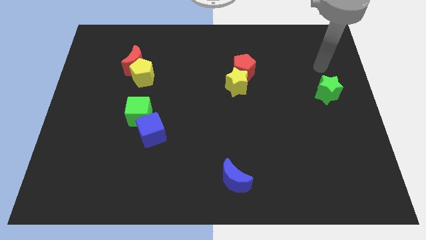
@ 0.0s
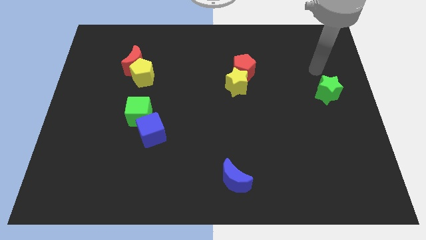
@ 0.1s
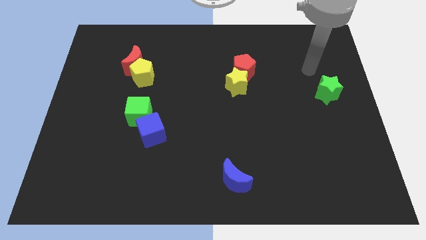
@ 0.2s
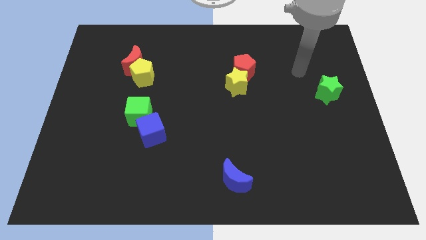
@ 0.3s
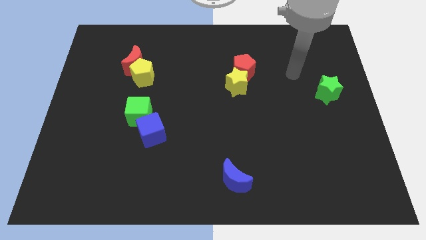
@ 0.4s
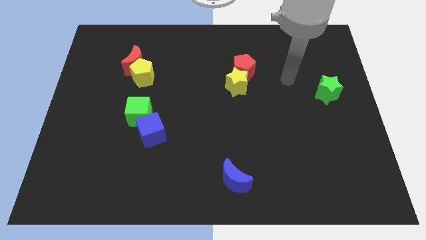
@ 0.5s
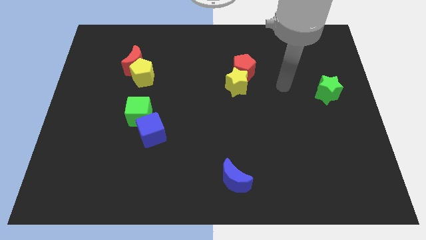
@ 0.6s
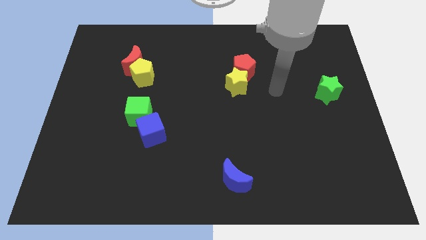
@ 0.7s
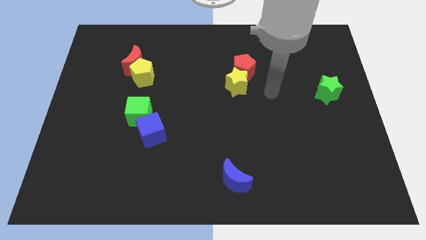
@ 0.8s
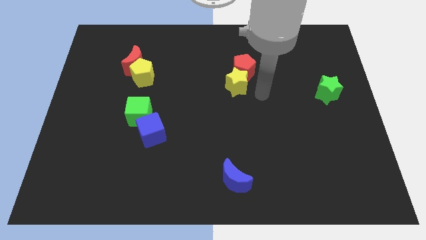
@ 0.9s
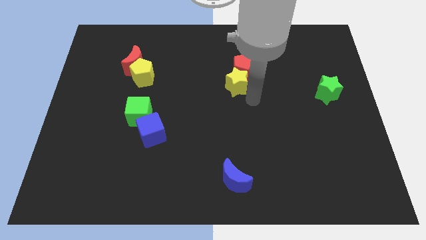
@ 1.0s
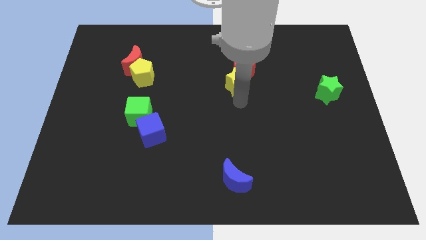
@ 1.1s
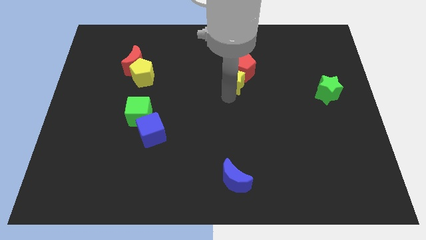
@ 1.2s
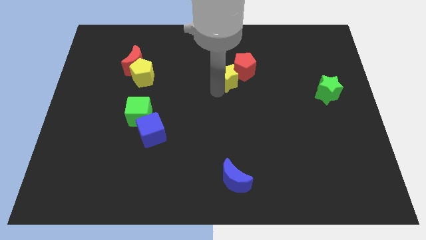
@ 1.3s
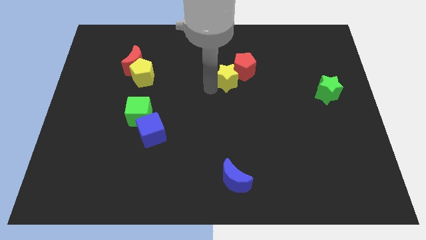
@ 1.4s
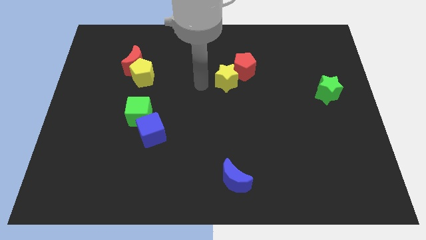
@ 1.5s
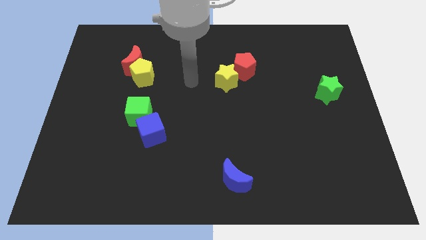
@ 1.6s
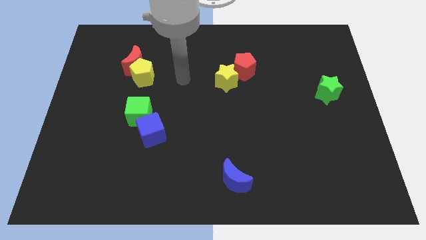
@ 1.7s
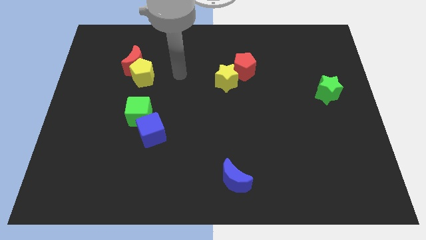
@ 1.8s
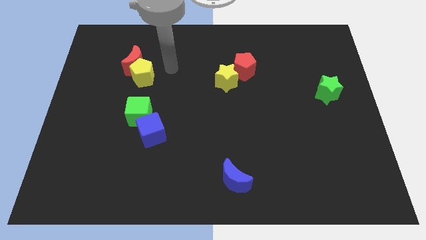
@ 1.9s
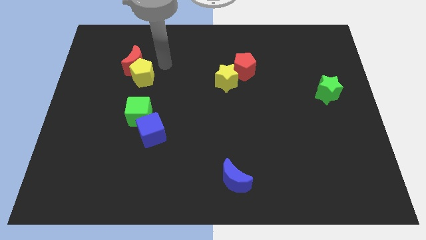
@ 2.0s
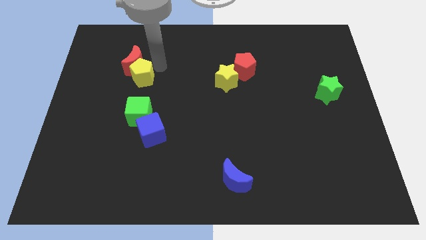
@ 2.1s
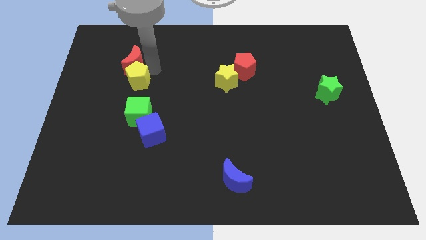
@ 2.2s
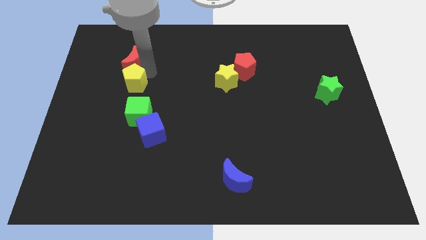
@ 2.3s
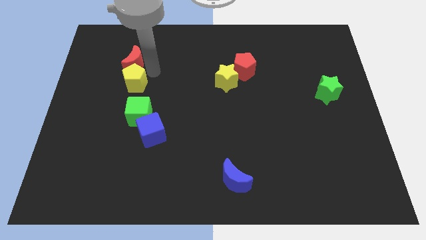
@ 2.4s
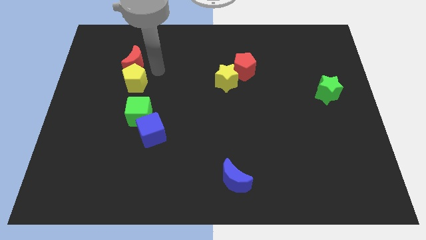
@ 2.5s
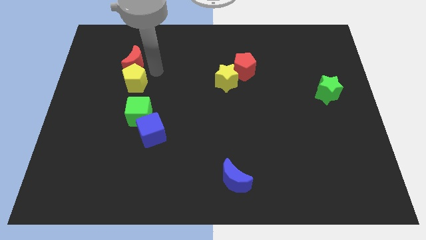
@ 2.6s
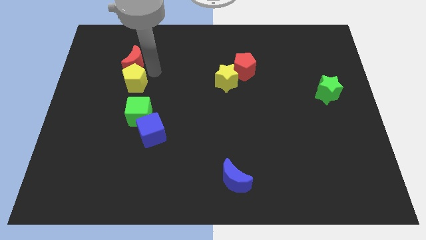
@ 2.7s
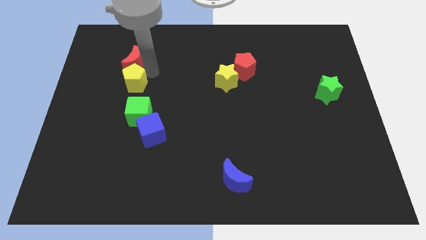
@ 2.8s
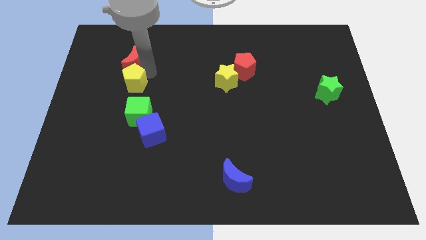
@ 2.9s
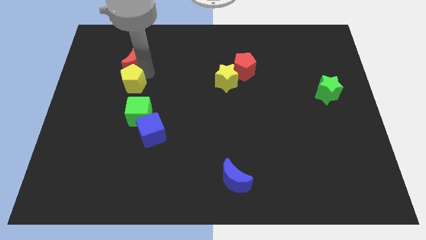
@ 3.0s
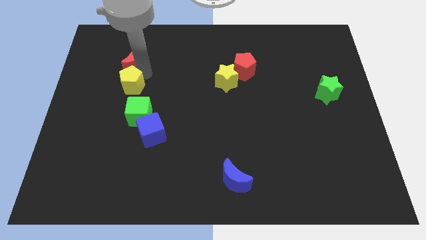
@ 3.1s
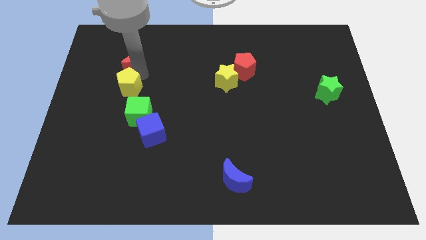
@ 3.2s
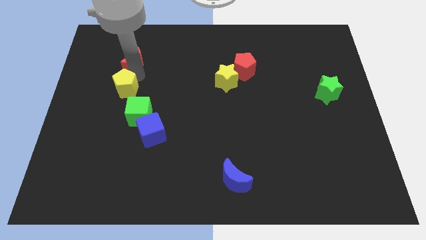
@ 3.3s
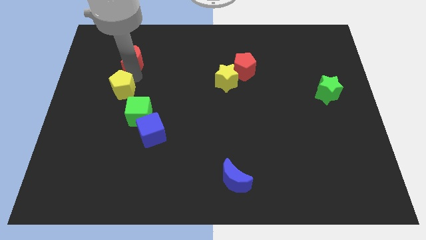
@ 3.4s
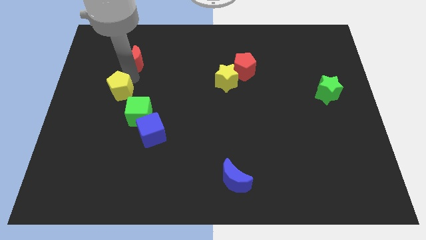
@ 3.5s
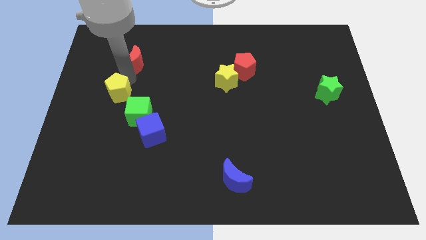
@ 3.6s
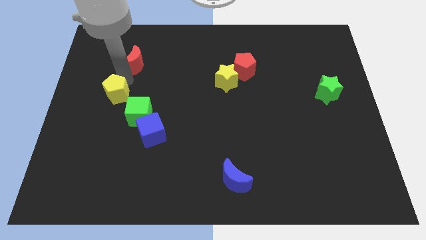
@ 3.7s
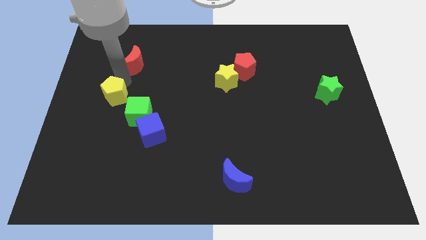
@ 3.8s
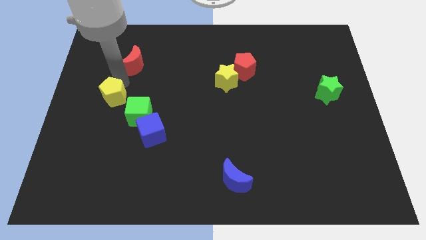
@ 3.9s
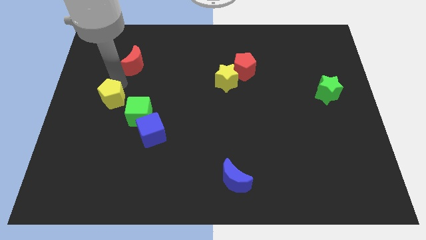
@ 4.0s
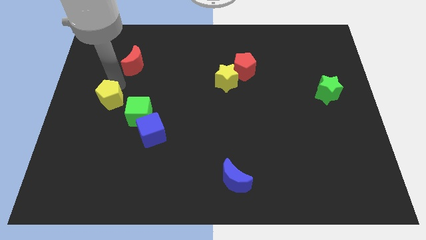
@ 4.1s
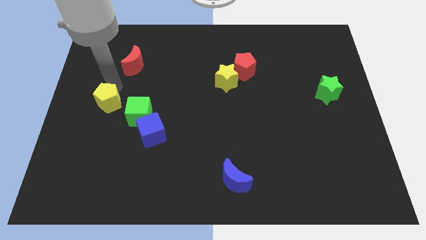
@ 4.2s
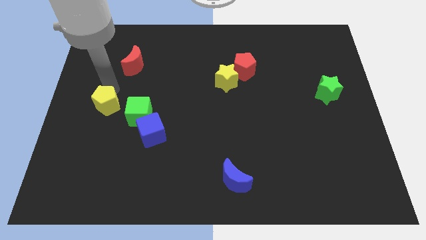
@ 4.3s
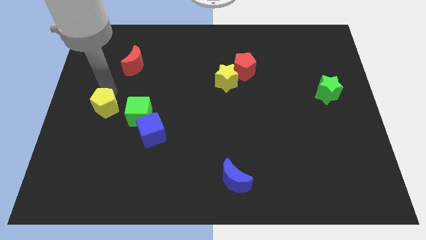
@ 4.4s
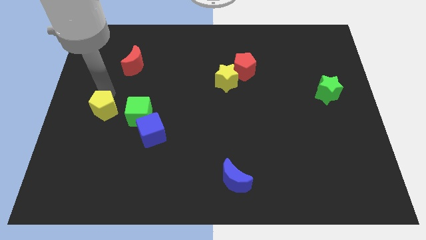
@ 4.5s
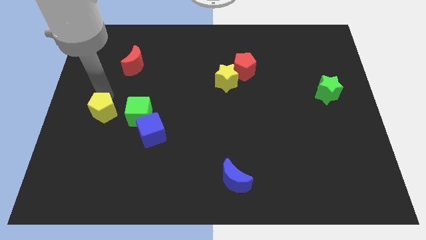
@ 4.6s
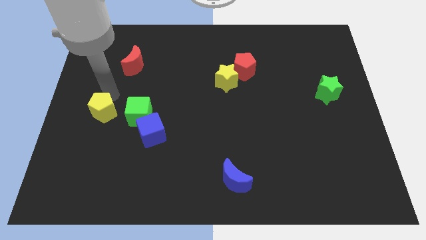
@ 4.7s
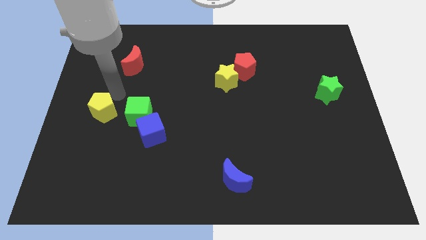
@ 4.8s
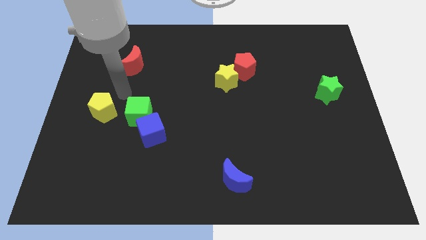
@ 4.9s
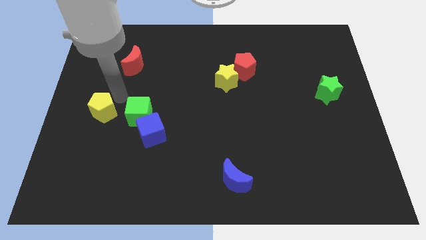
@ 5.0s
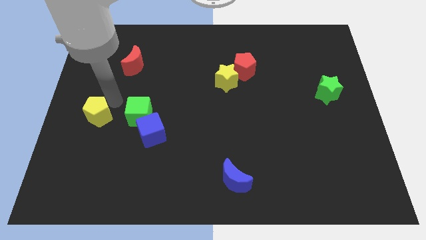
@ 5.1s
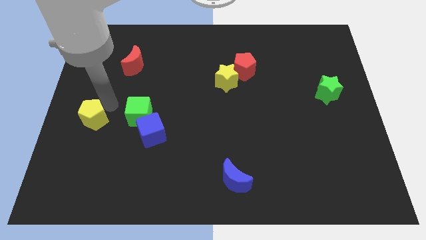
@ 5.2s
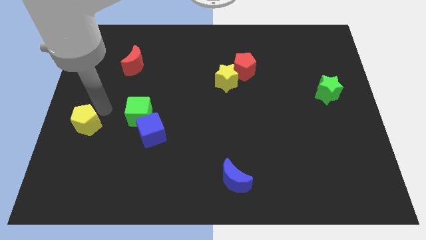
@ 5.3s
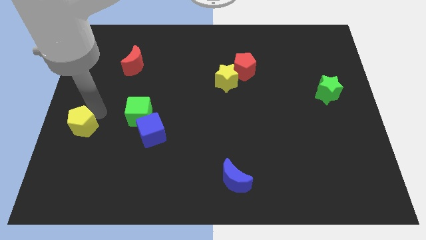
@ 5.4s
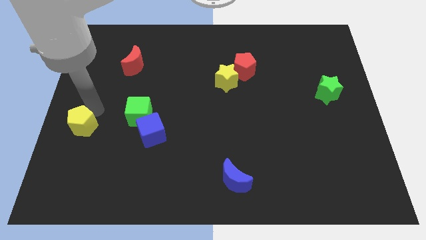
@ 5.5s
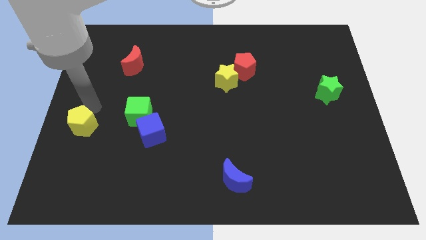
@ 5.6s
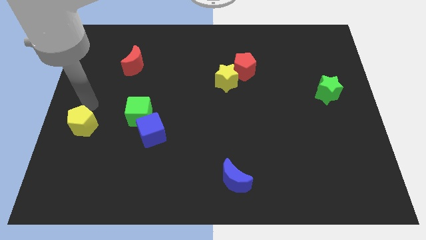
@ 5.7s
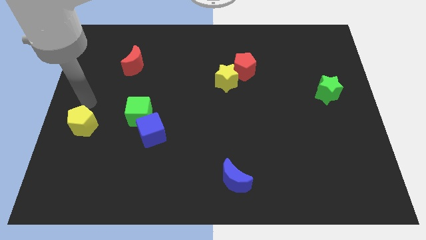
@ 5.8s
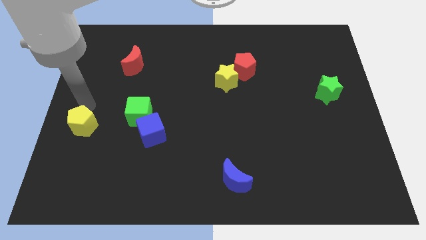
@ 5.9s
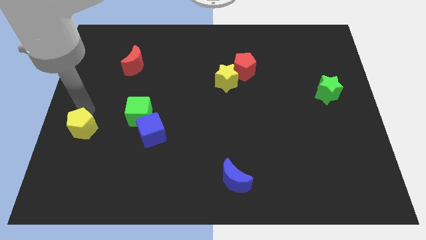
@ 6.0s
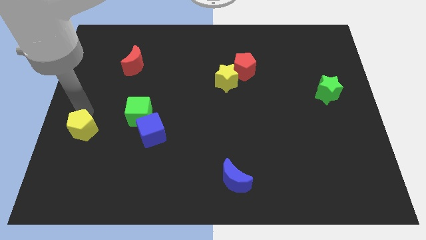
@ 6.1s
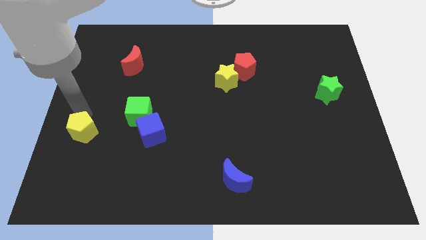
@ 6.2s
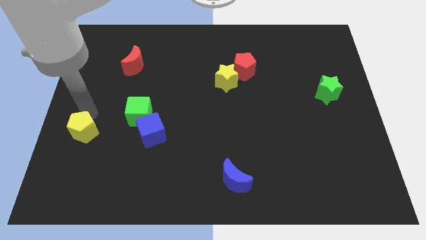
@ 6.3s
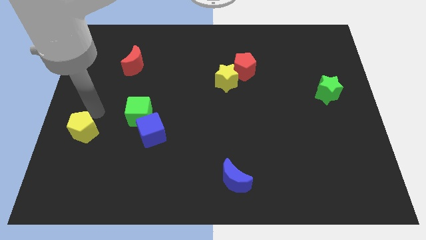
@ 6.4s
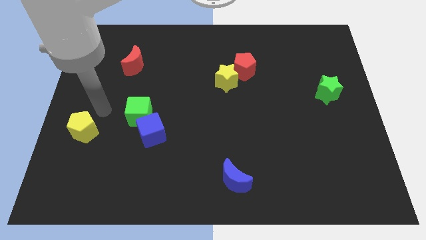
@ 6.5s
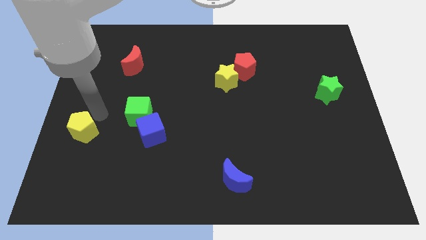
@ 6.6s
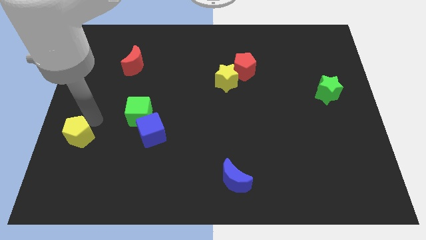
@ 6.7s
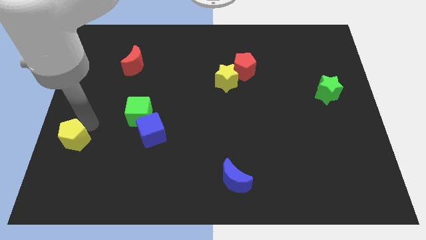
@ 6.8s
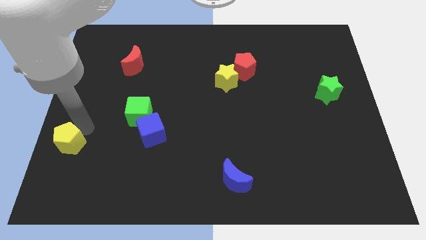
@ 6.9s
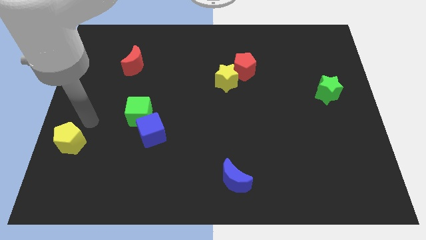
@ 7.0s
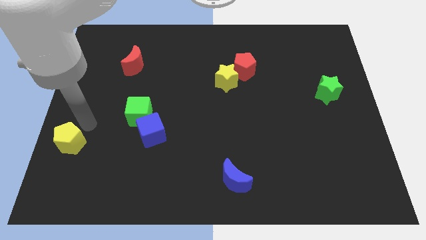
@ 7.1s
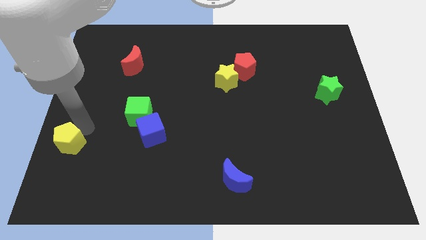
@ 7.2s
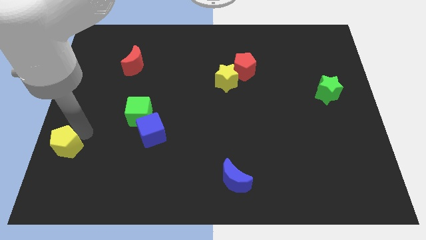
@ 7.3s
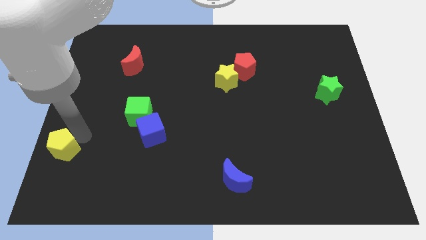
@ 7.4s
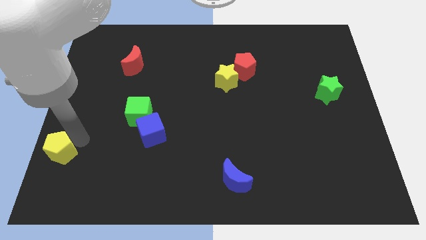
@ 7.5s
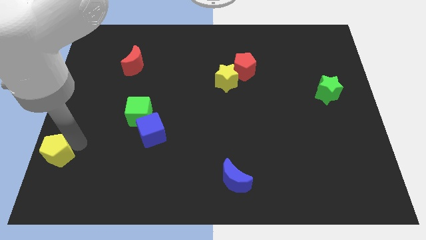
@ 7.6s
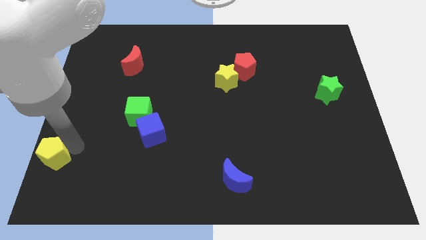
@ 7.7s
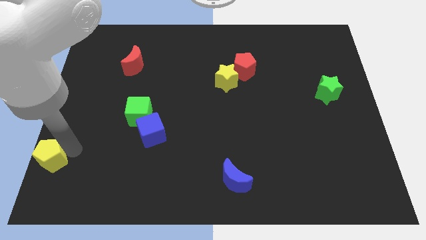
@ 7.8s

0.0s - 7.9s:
slide the yellow pentagon to the bottom left of the board
